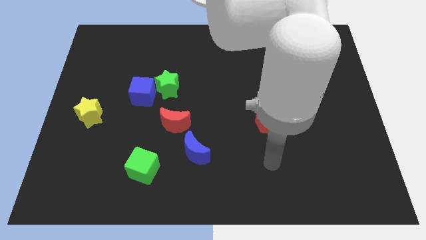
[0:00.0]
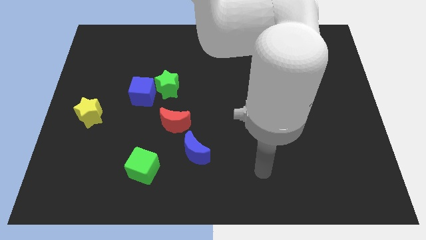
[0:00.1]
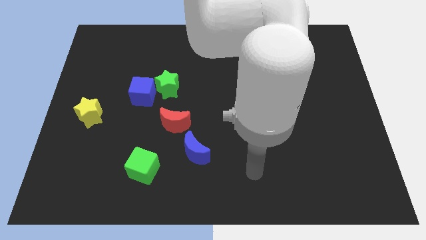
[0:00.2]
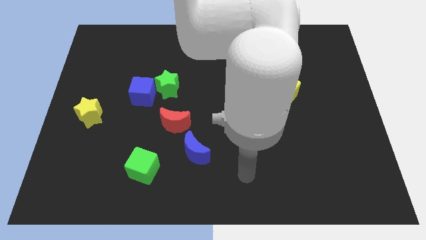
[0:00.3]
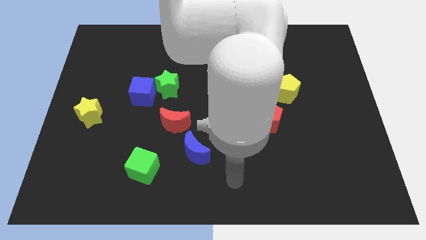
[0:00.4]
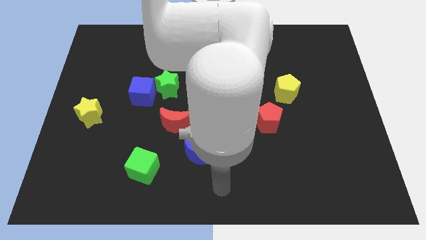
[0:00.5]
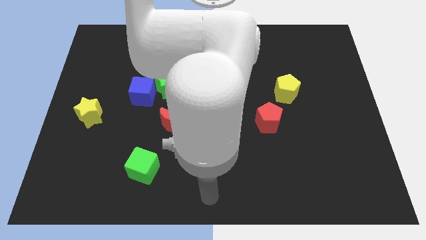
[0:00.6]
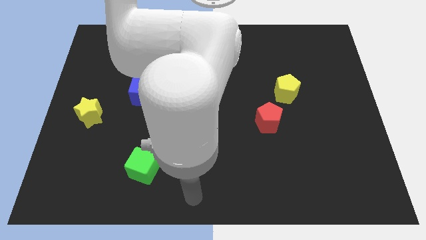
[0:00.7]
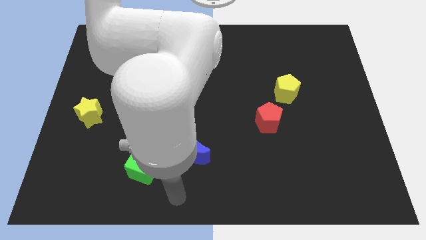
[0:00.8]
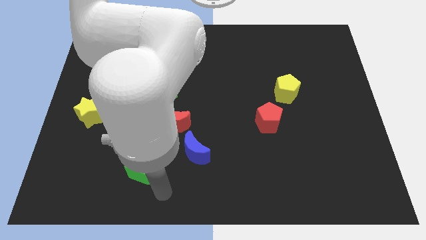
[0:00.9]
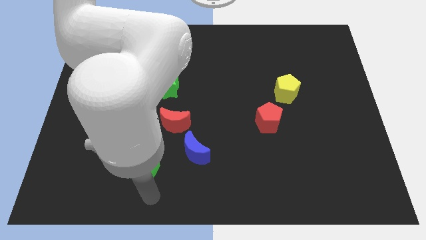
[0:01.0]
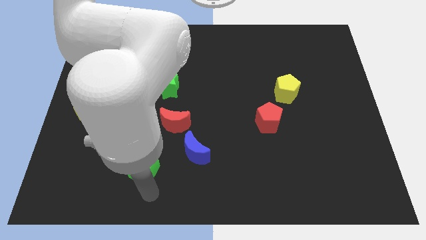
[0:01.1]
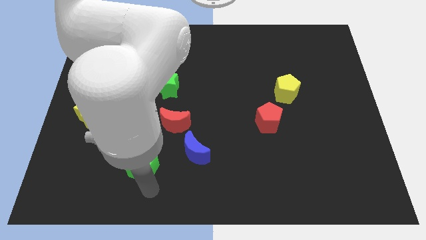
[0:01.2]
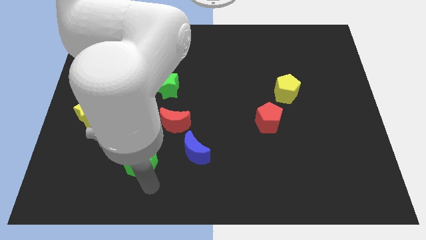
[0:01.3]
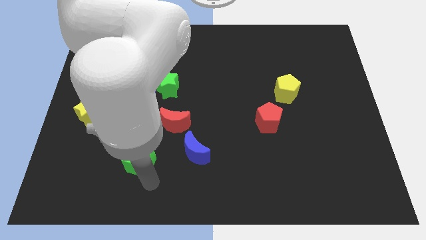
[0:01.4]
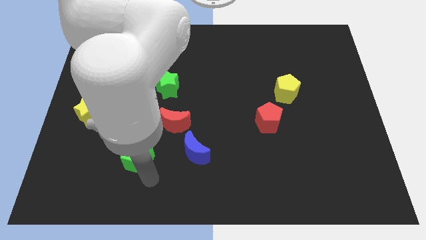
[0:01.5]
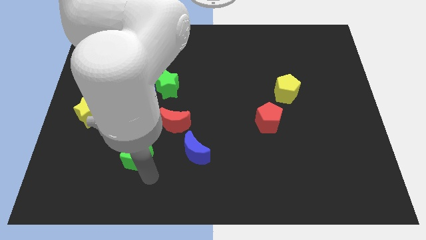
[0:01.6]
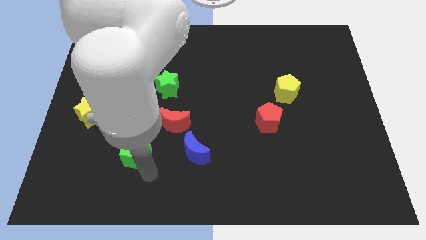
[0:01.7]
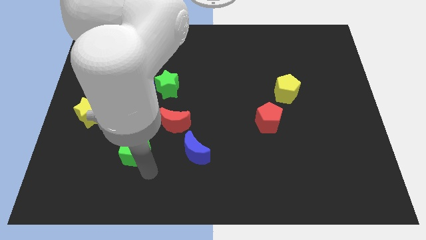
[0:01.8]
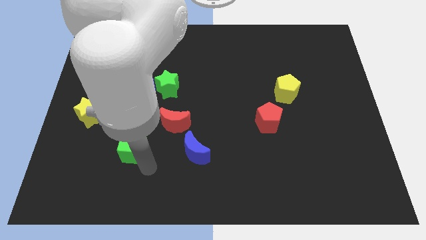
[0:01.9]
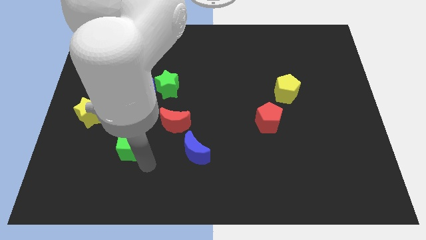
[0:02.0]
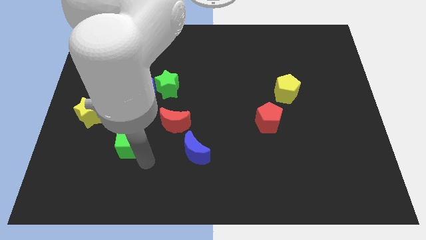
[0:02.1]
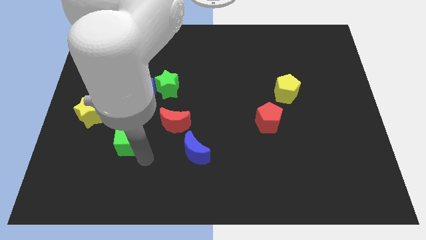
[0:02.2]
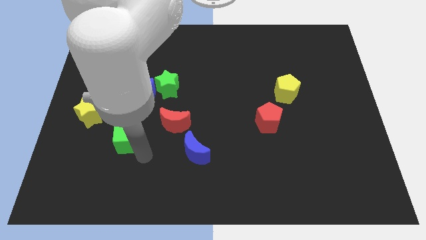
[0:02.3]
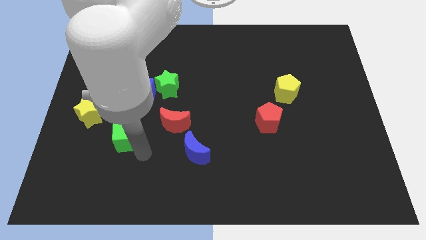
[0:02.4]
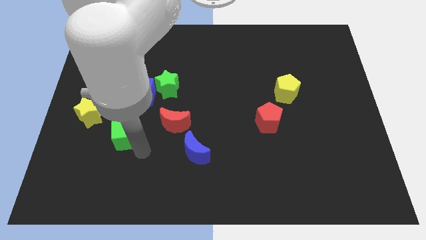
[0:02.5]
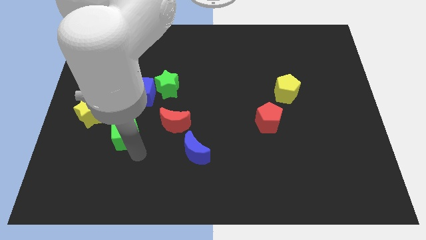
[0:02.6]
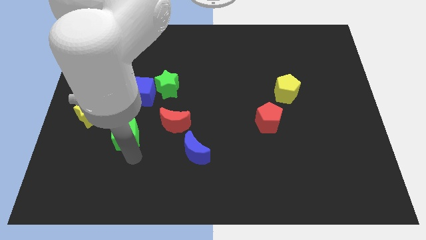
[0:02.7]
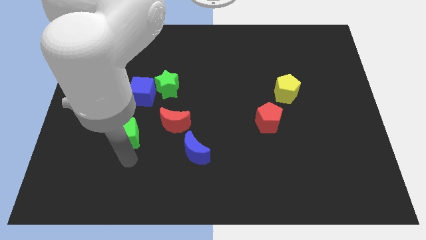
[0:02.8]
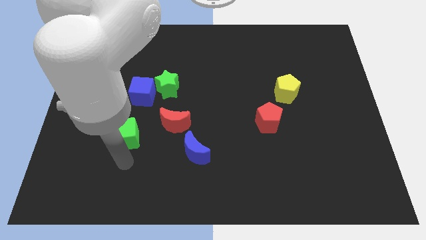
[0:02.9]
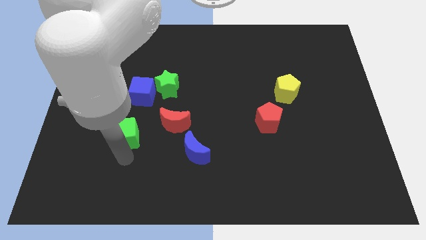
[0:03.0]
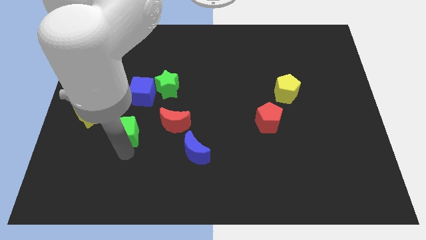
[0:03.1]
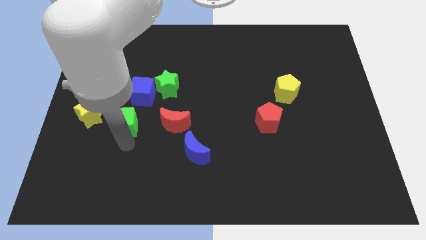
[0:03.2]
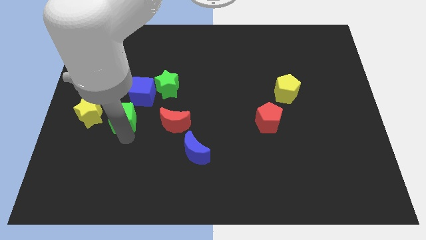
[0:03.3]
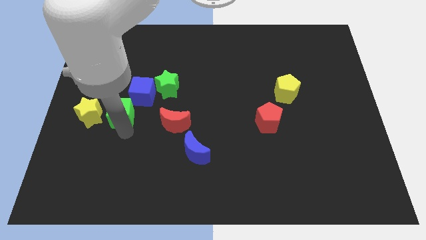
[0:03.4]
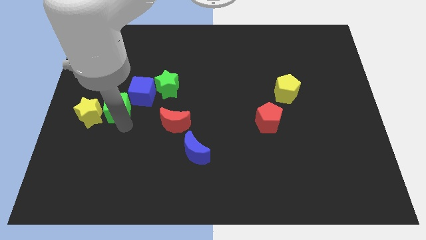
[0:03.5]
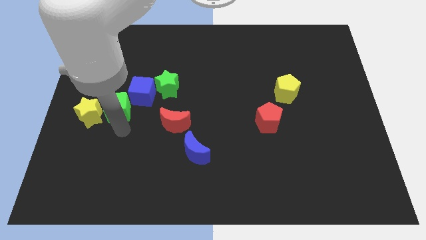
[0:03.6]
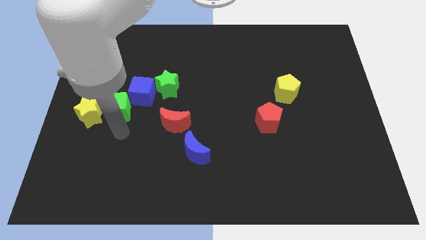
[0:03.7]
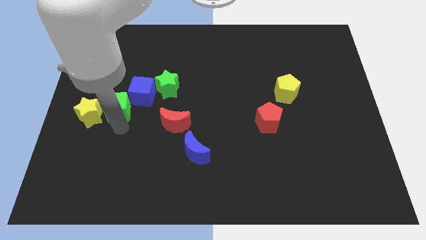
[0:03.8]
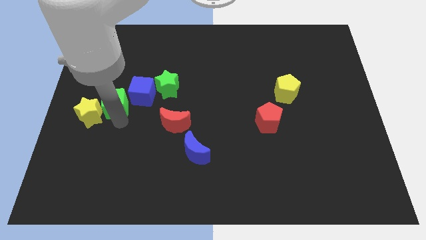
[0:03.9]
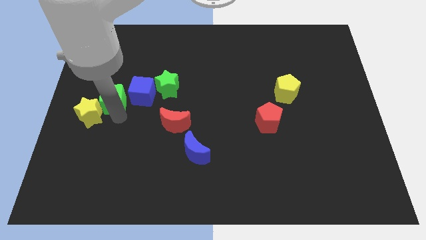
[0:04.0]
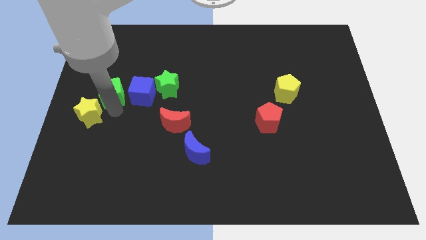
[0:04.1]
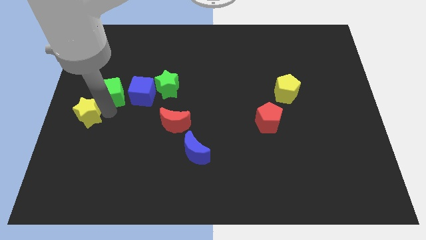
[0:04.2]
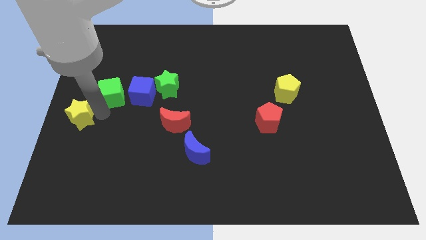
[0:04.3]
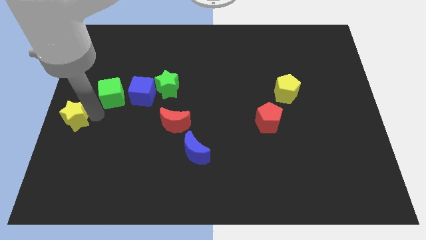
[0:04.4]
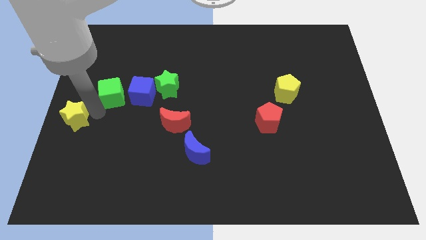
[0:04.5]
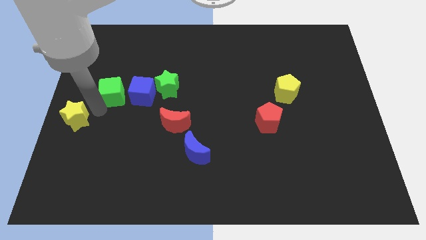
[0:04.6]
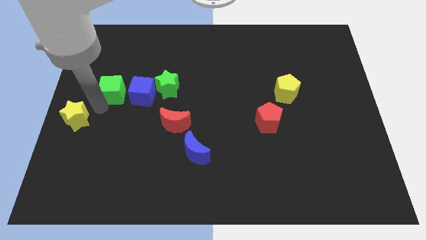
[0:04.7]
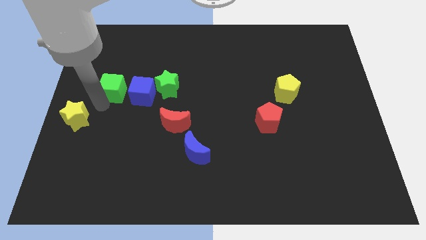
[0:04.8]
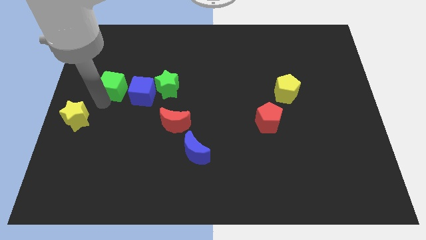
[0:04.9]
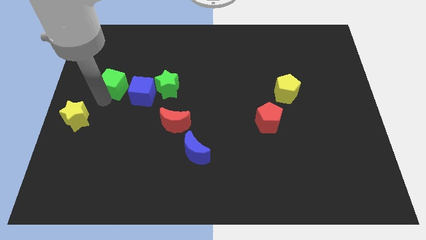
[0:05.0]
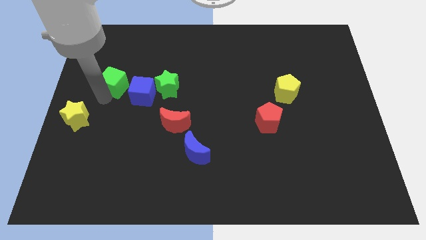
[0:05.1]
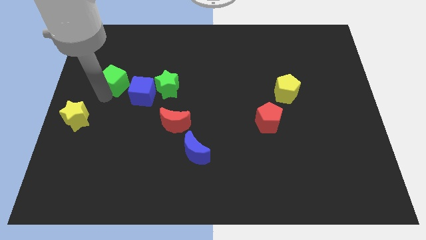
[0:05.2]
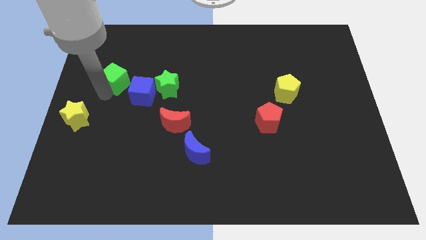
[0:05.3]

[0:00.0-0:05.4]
push the green cube upwards

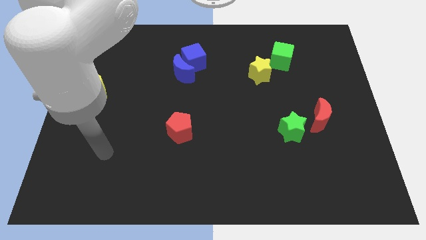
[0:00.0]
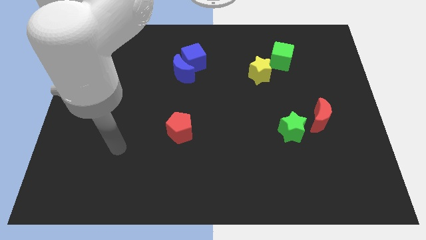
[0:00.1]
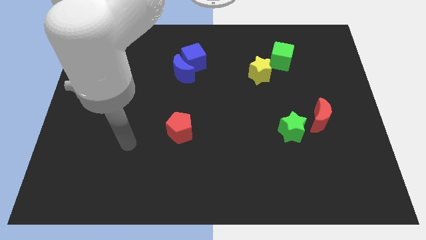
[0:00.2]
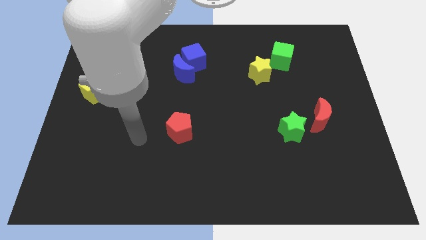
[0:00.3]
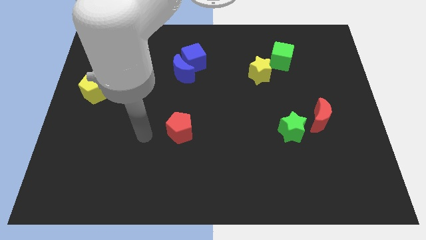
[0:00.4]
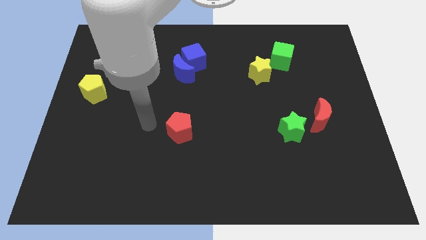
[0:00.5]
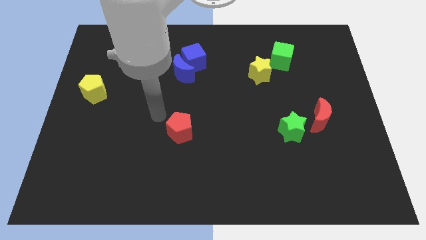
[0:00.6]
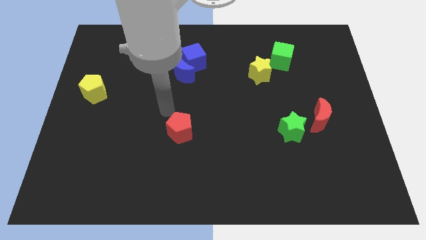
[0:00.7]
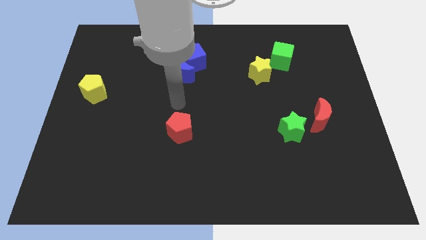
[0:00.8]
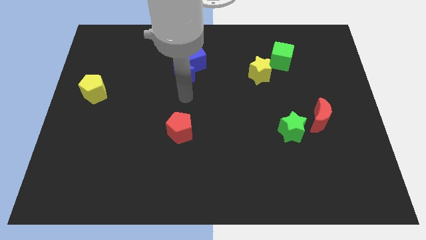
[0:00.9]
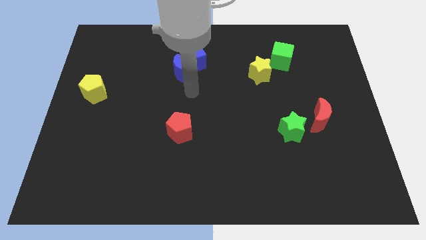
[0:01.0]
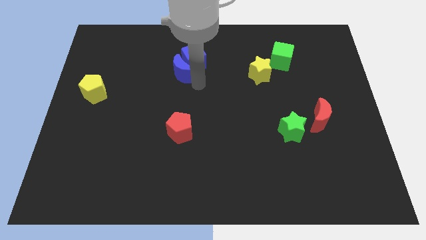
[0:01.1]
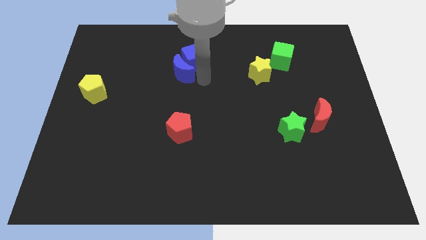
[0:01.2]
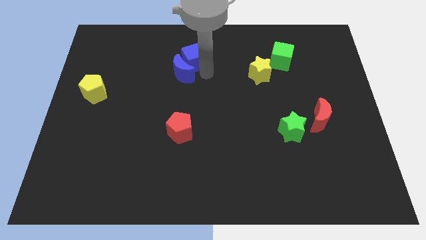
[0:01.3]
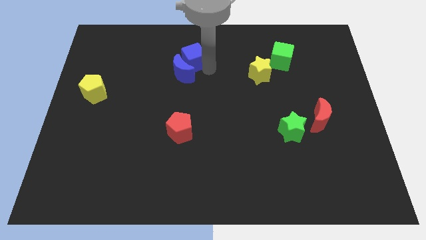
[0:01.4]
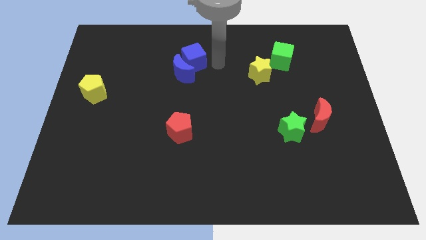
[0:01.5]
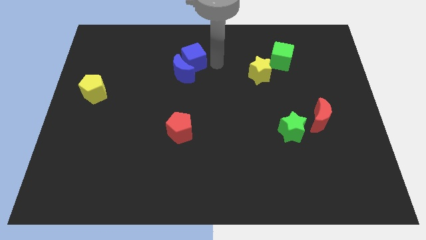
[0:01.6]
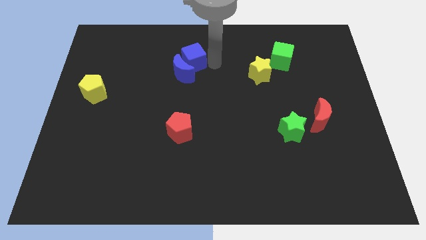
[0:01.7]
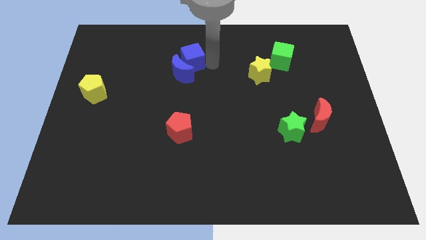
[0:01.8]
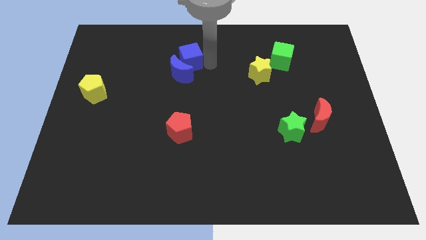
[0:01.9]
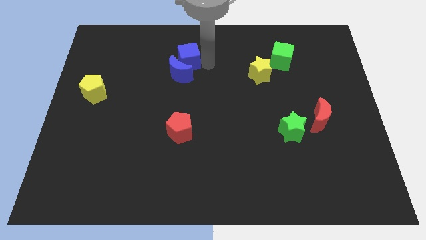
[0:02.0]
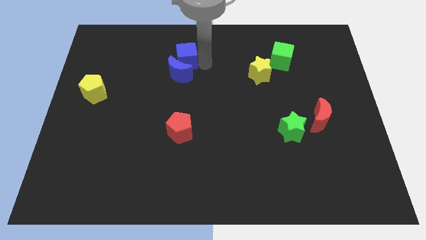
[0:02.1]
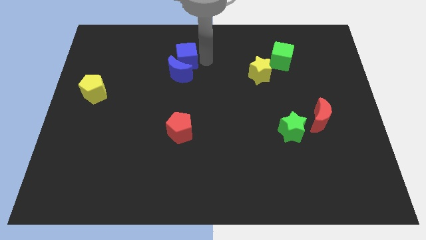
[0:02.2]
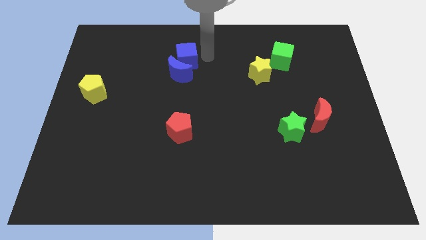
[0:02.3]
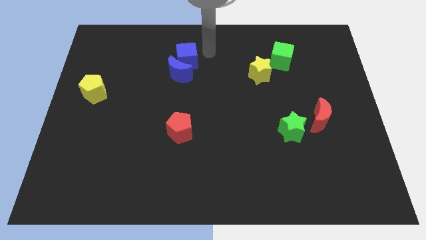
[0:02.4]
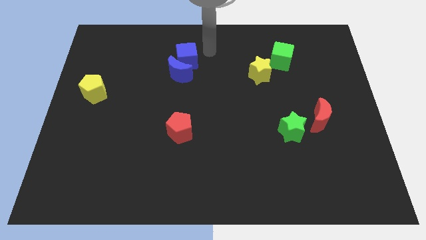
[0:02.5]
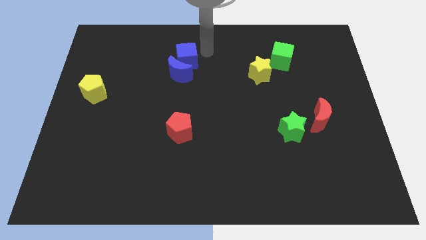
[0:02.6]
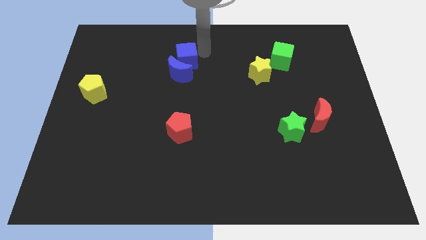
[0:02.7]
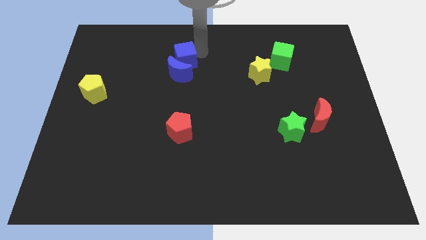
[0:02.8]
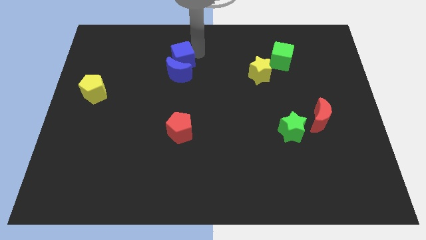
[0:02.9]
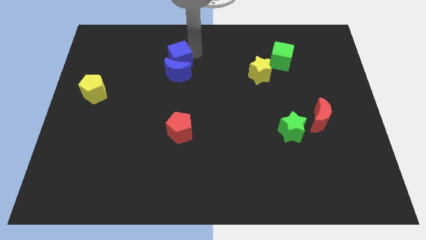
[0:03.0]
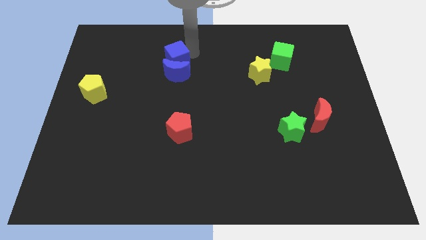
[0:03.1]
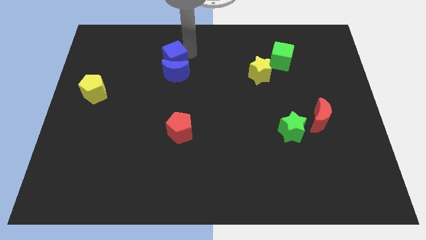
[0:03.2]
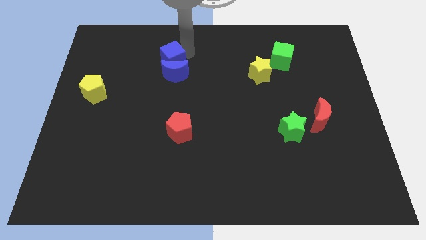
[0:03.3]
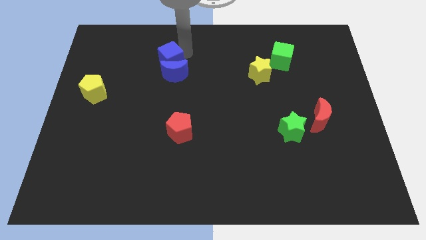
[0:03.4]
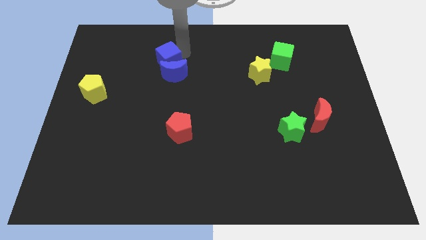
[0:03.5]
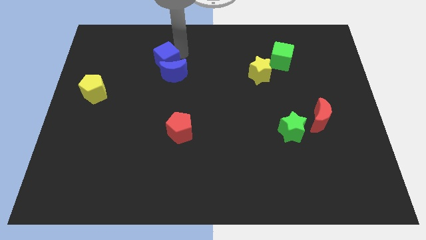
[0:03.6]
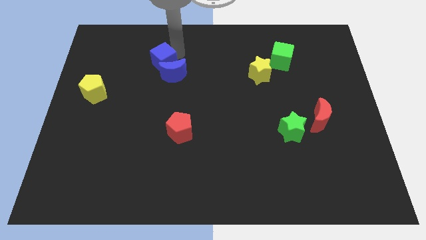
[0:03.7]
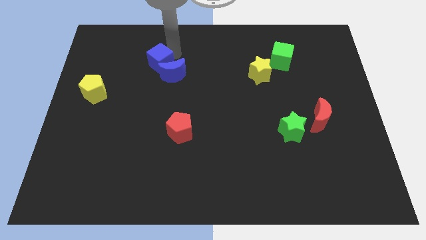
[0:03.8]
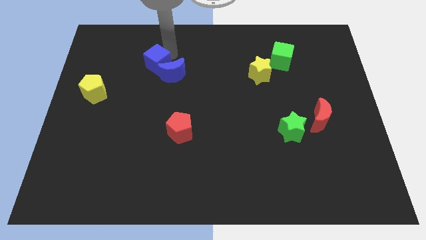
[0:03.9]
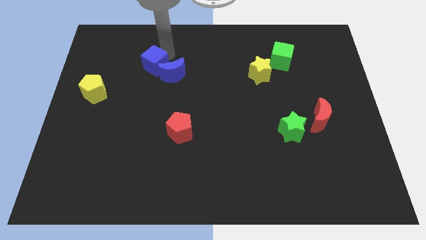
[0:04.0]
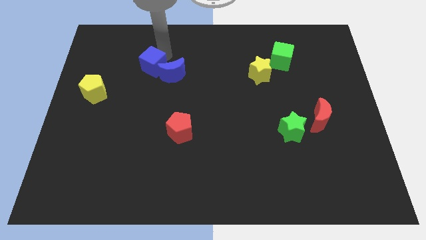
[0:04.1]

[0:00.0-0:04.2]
push the blue cube diagonally down and left a bit
